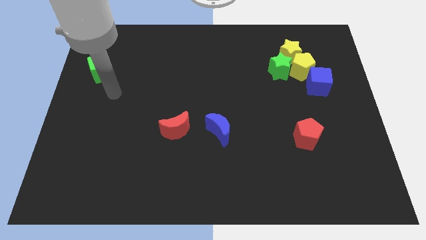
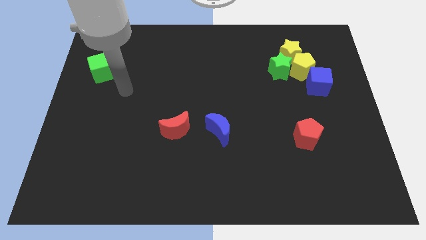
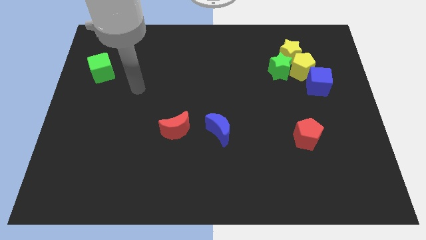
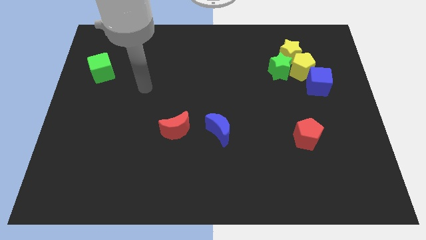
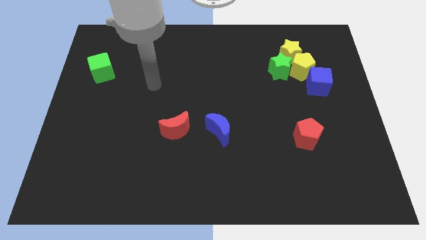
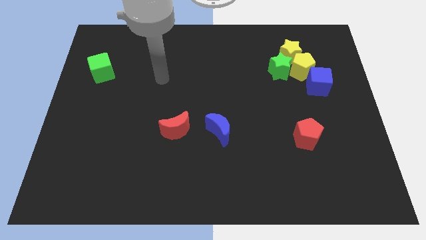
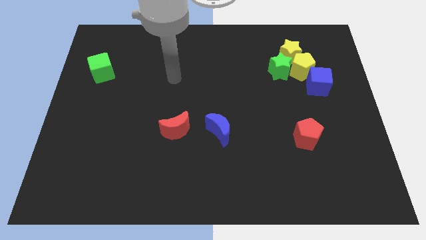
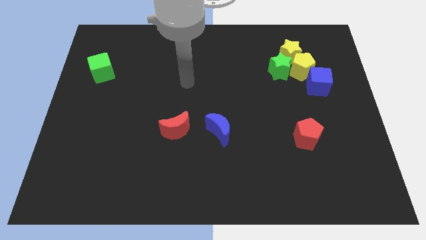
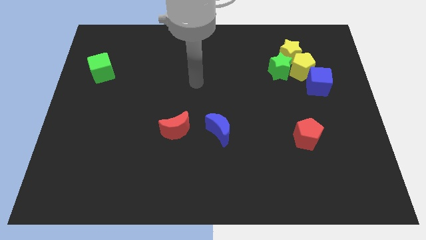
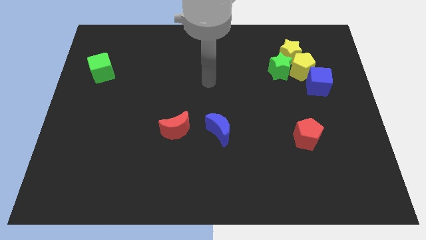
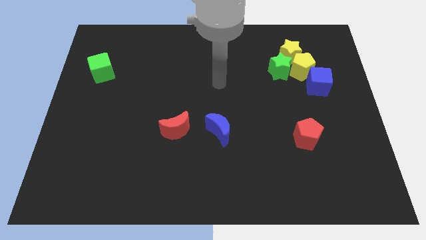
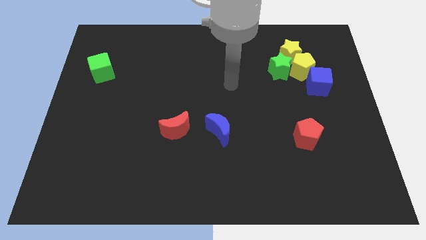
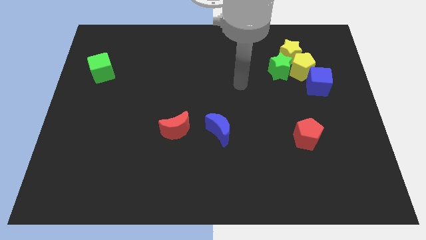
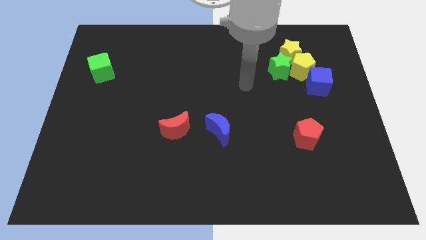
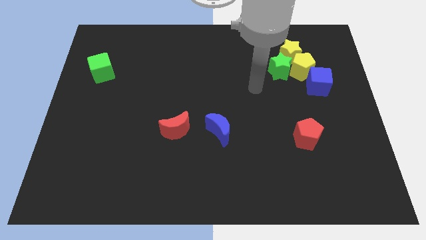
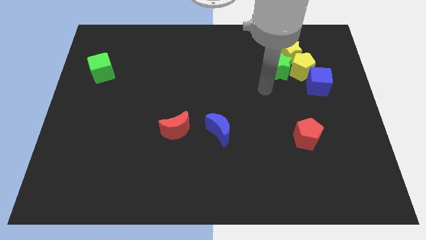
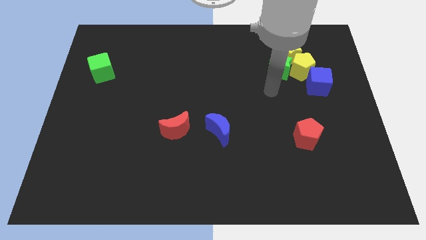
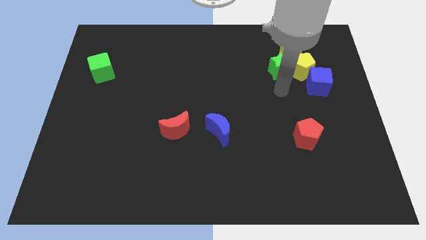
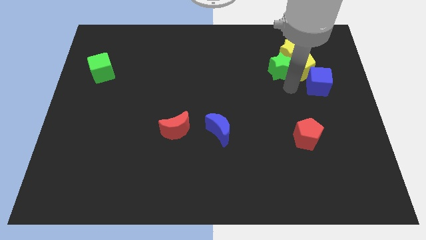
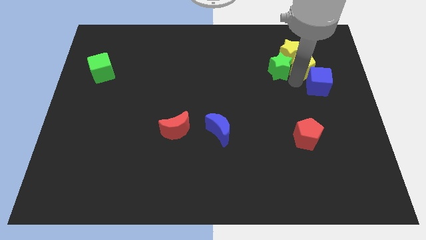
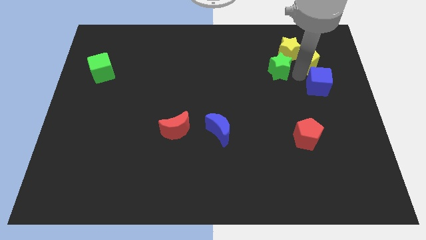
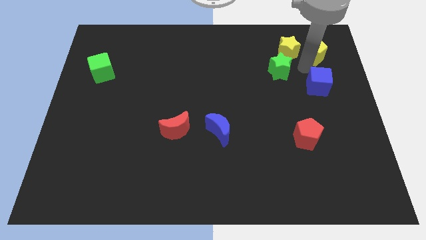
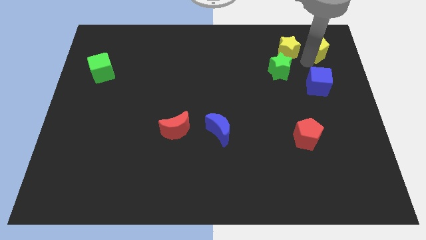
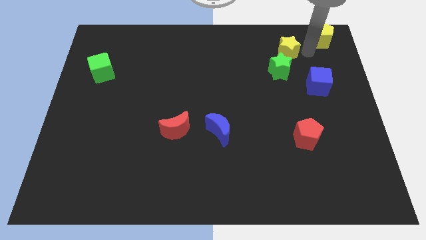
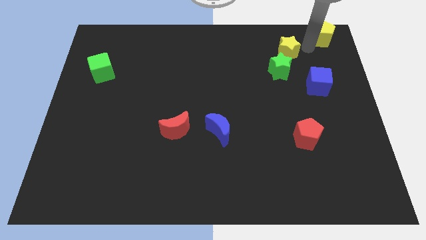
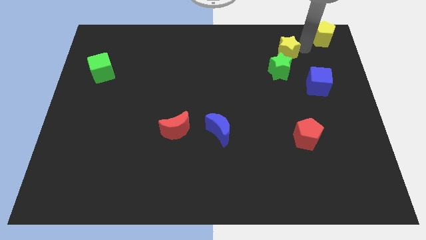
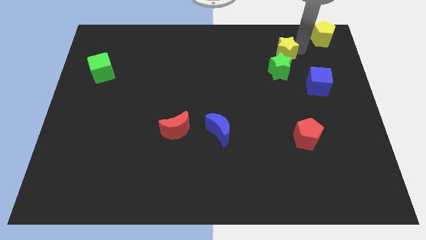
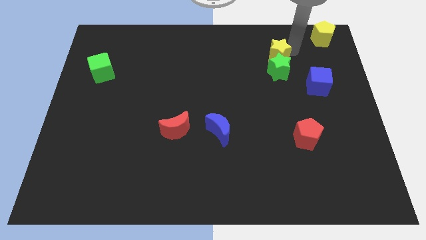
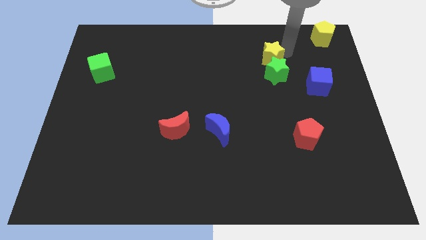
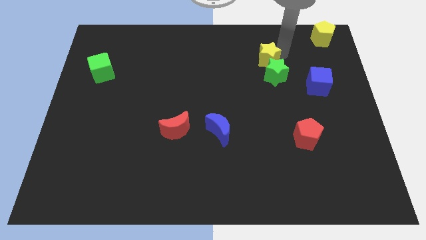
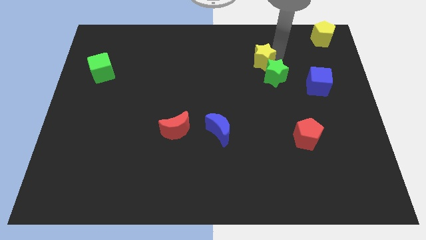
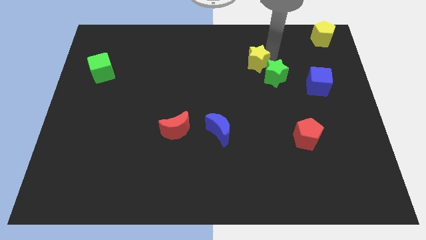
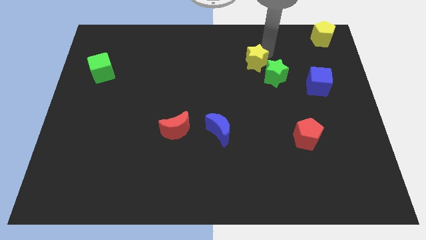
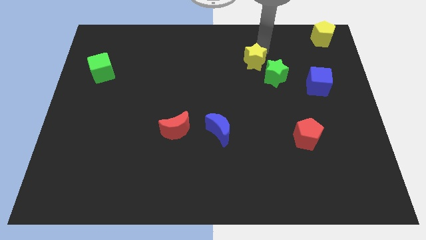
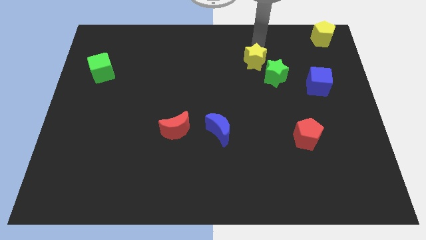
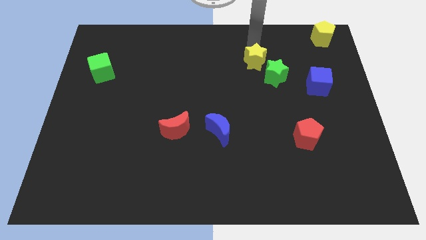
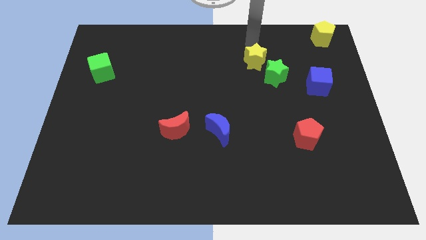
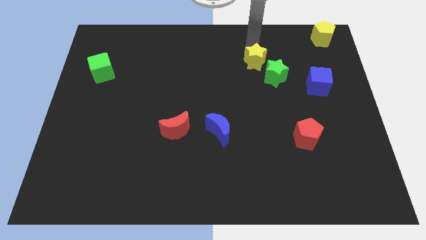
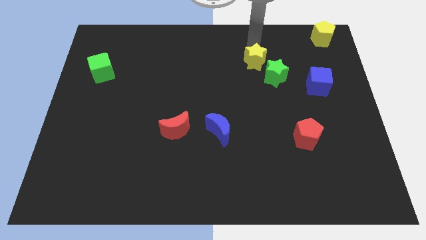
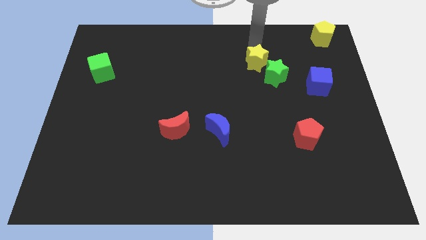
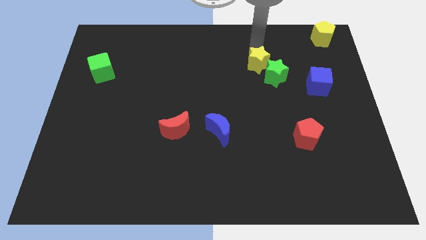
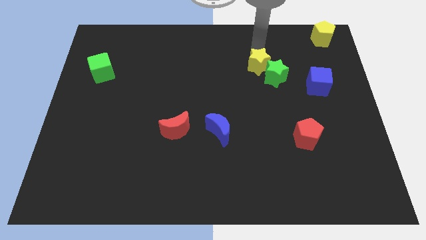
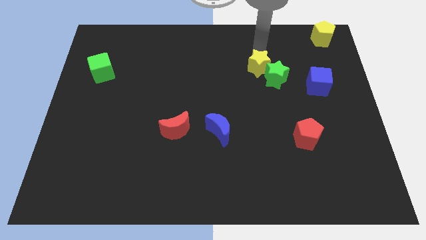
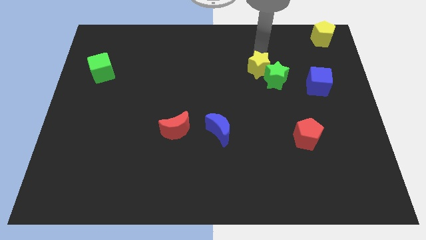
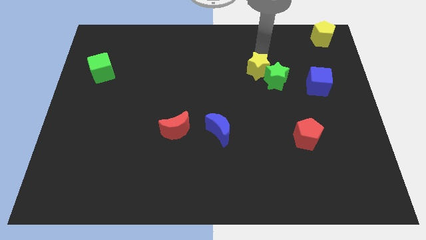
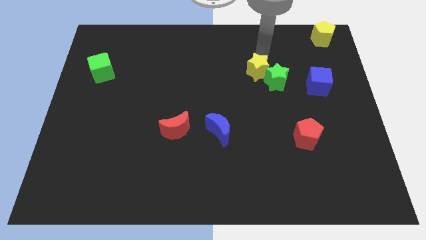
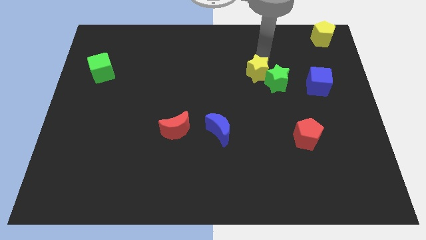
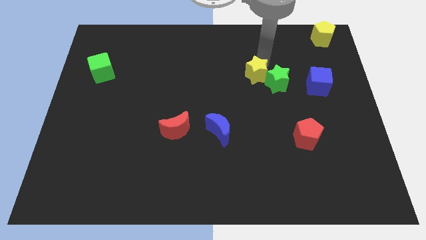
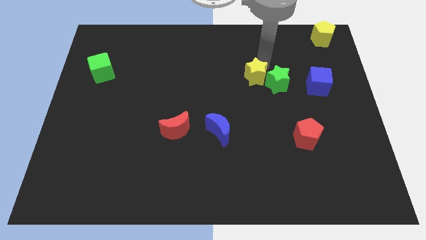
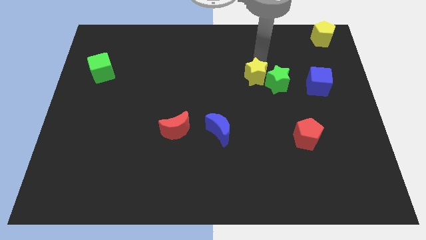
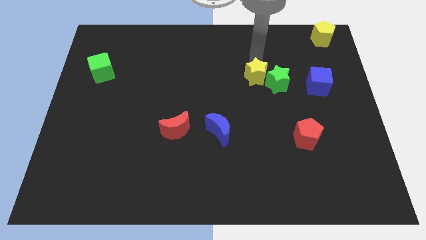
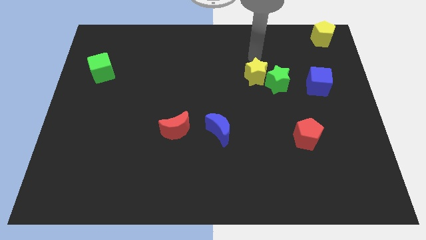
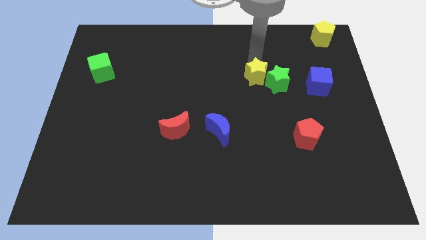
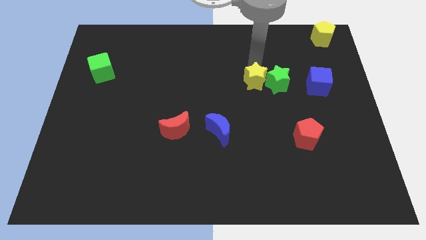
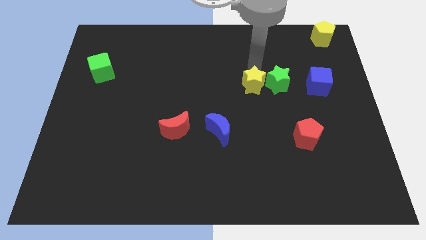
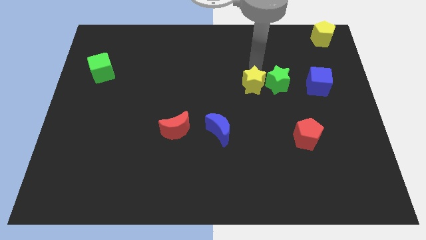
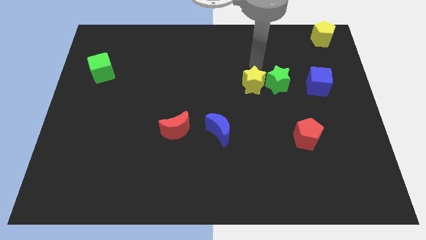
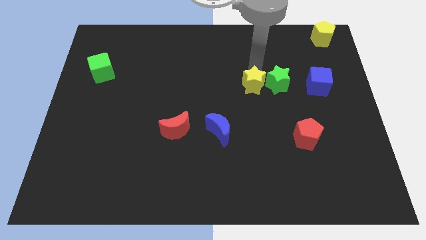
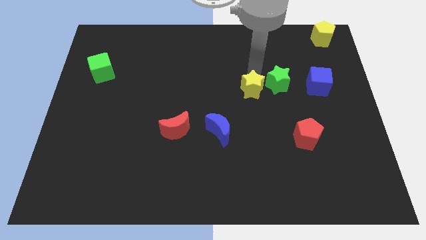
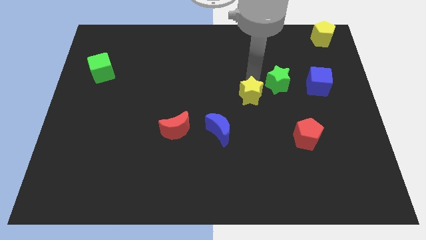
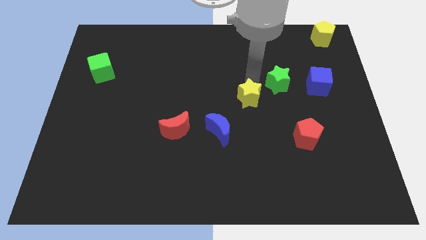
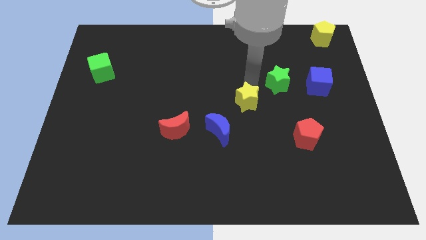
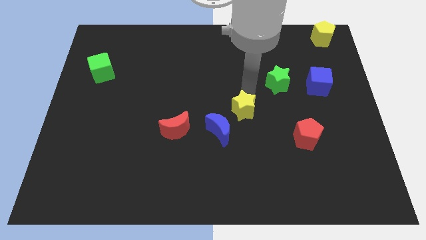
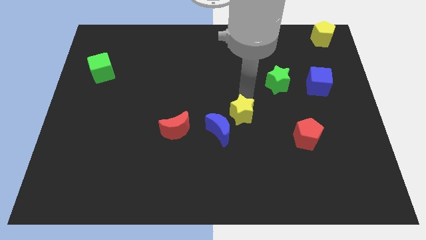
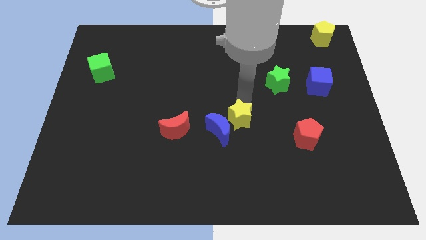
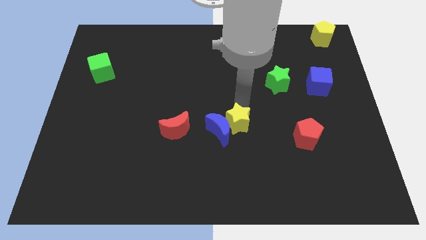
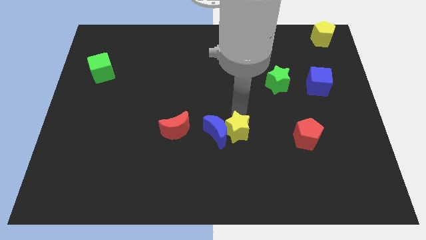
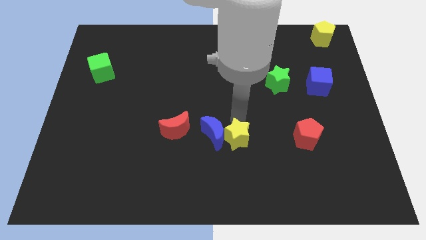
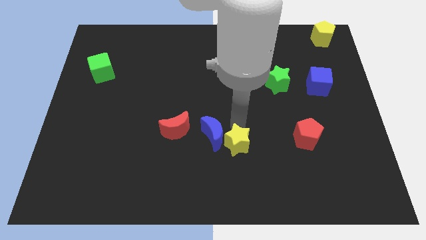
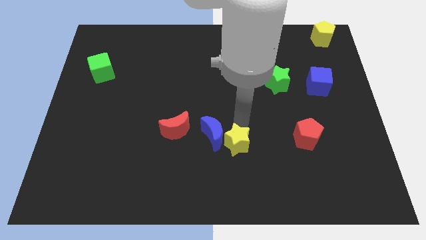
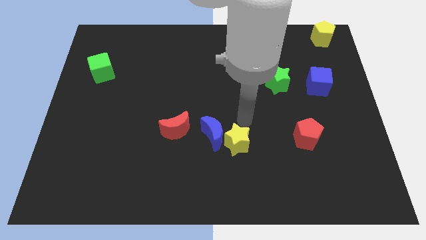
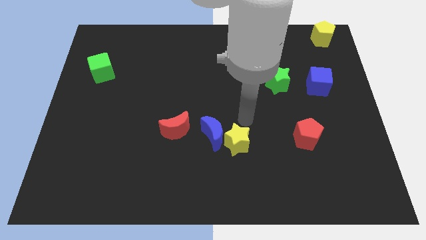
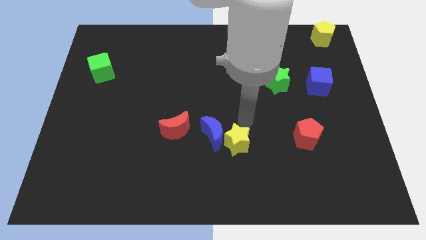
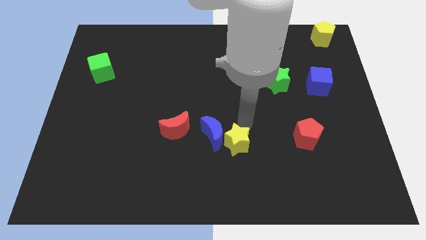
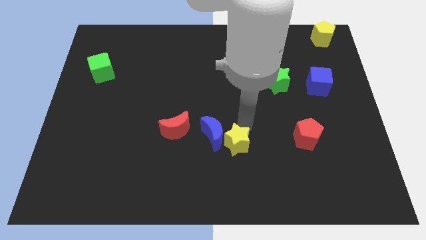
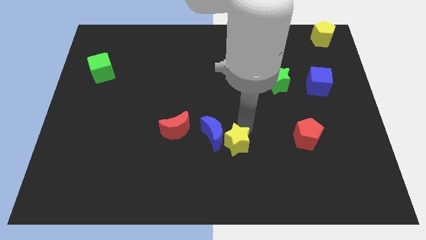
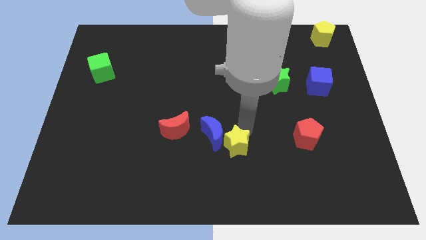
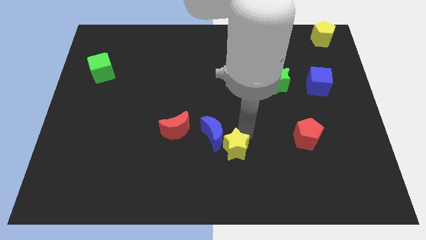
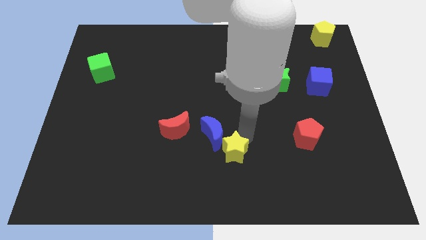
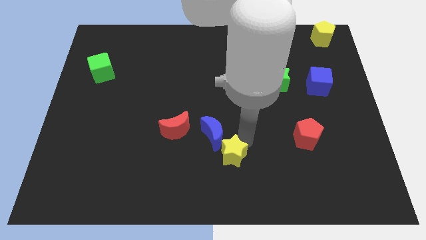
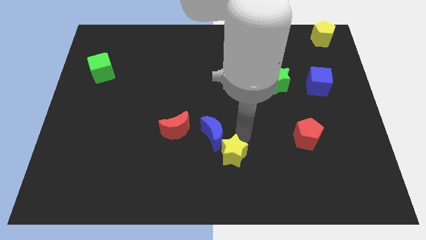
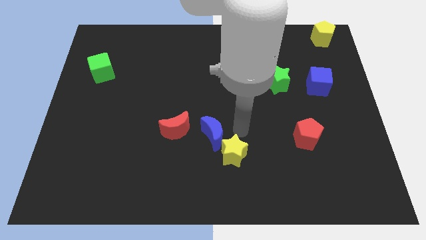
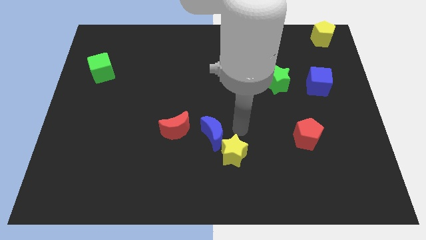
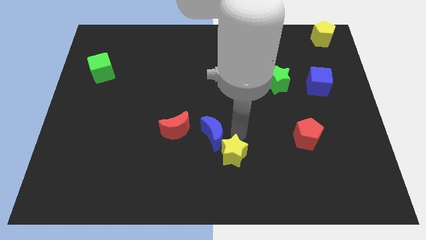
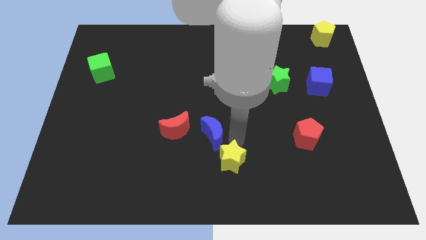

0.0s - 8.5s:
move the yellow star to the bottom
